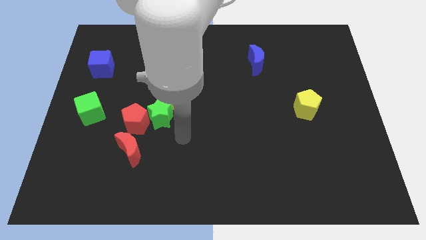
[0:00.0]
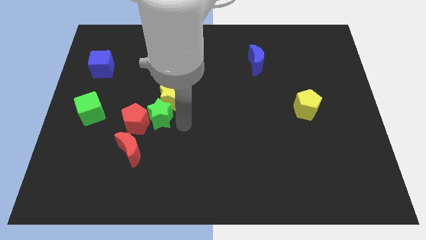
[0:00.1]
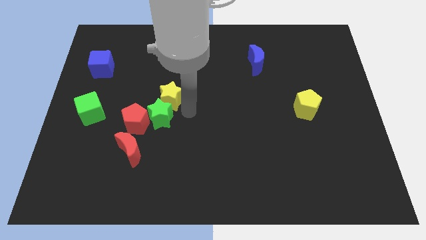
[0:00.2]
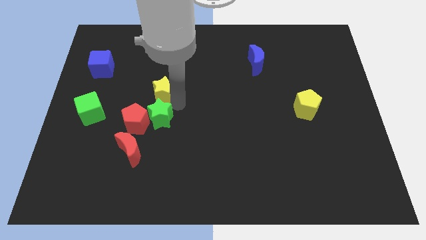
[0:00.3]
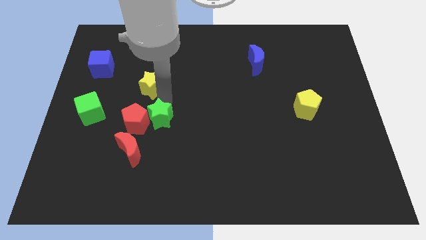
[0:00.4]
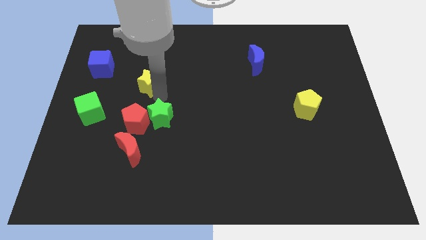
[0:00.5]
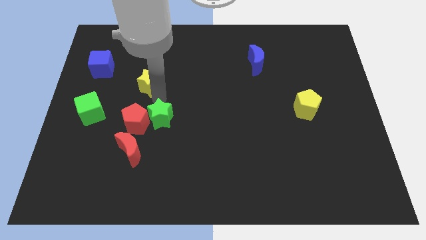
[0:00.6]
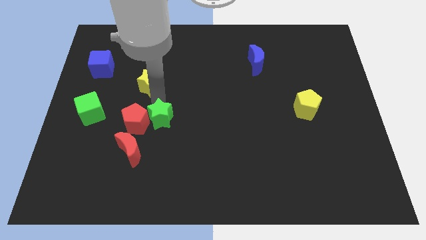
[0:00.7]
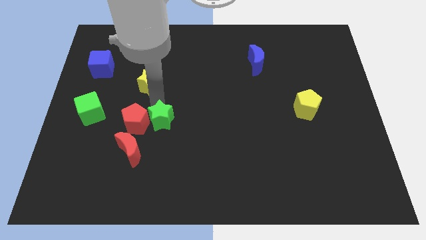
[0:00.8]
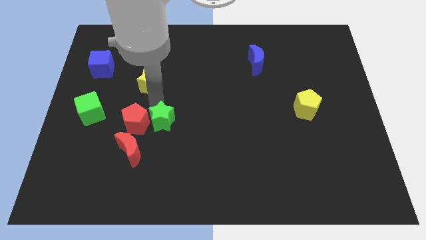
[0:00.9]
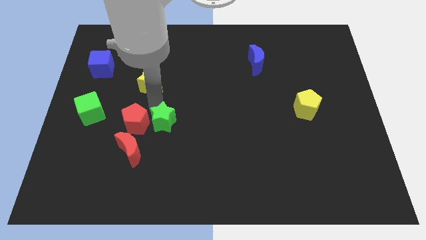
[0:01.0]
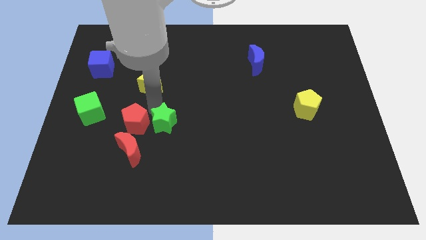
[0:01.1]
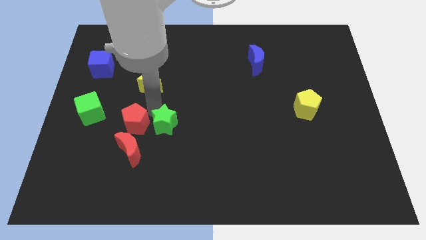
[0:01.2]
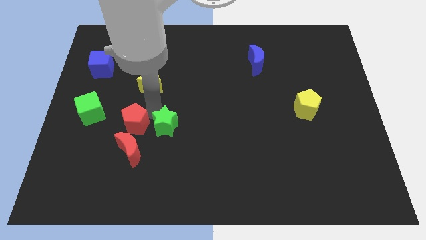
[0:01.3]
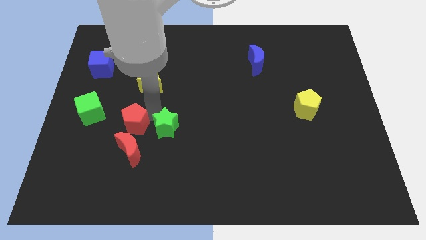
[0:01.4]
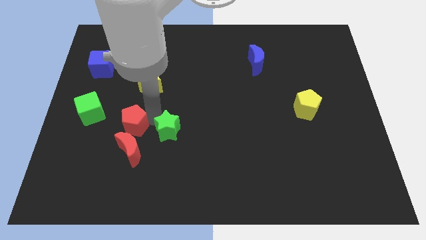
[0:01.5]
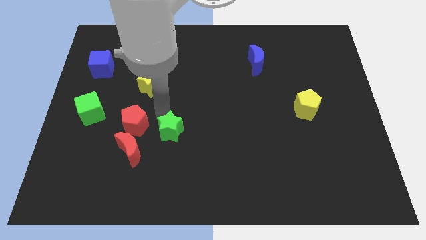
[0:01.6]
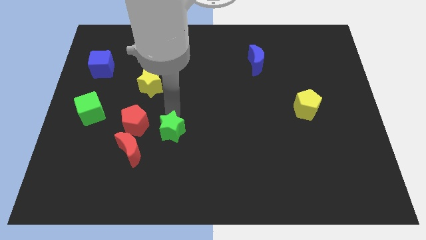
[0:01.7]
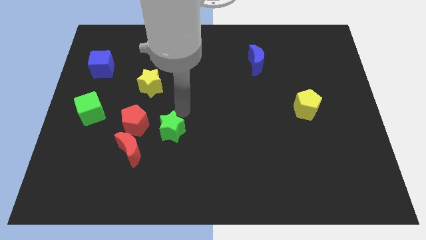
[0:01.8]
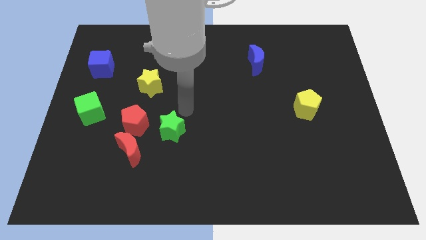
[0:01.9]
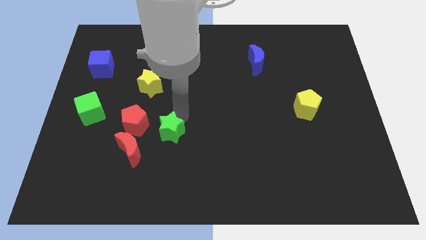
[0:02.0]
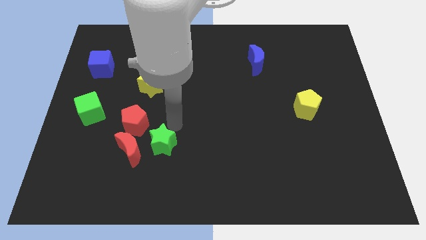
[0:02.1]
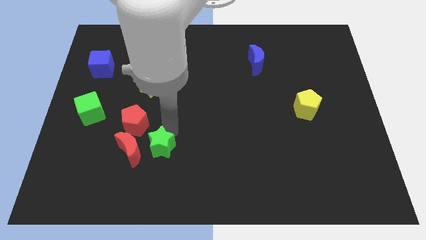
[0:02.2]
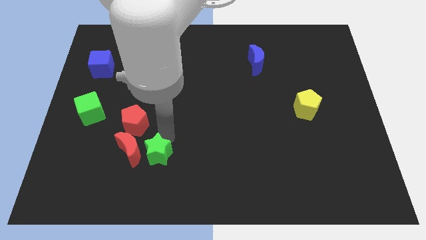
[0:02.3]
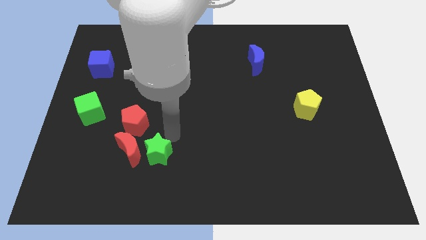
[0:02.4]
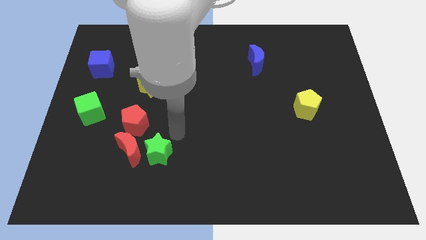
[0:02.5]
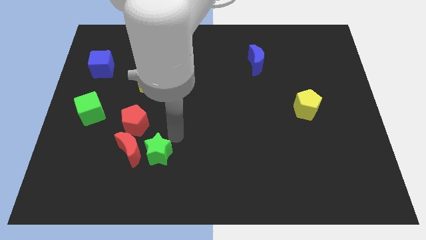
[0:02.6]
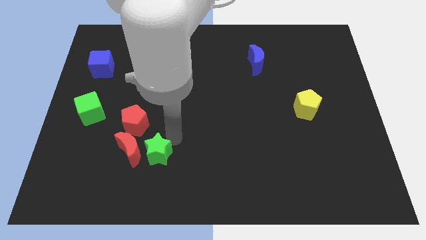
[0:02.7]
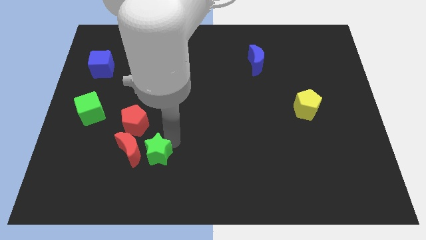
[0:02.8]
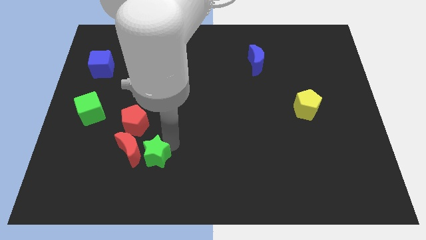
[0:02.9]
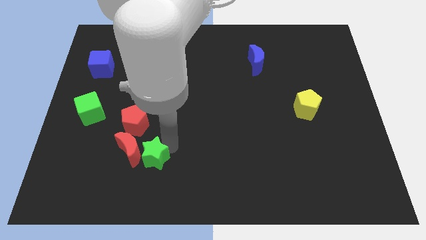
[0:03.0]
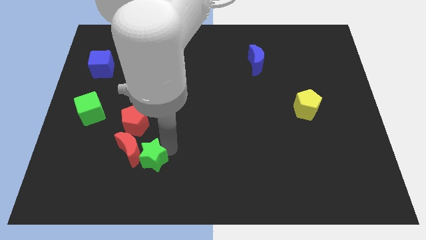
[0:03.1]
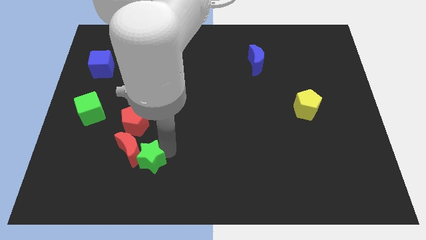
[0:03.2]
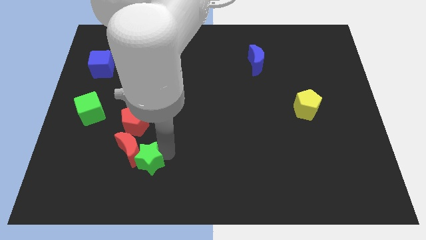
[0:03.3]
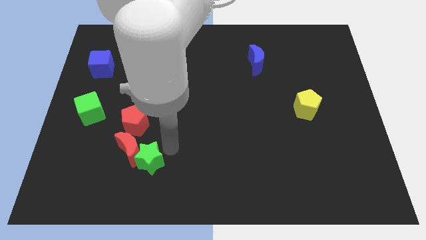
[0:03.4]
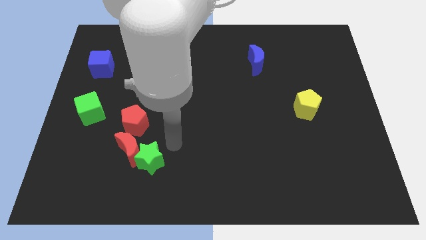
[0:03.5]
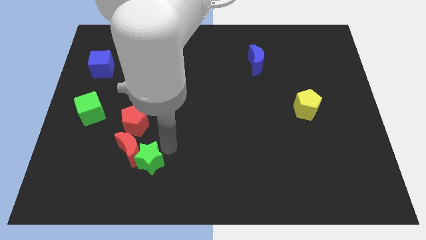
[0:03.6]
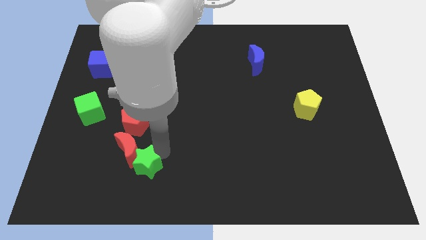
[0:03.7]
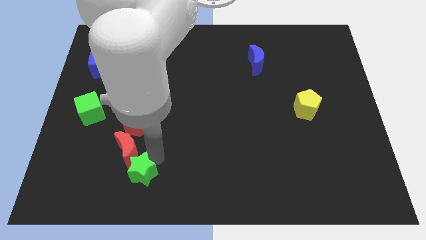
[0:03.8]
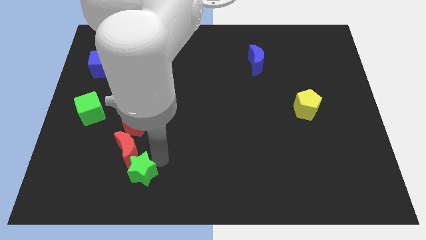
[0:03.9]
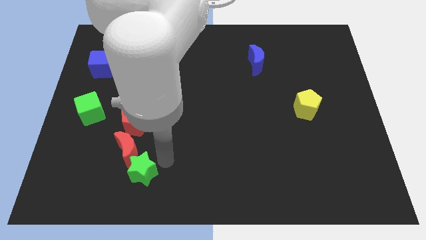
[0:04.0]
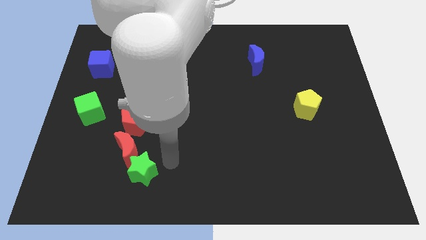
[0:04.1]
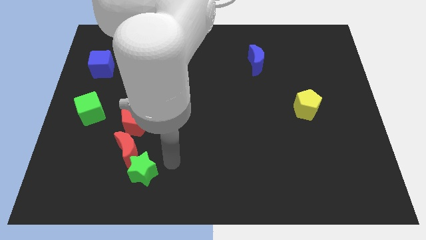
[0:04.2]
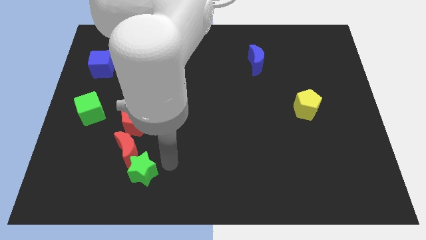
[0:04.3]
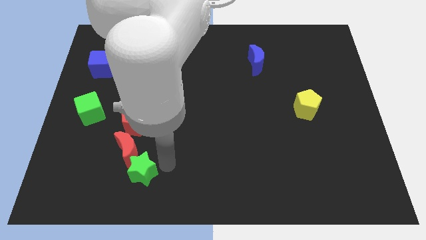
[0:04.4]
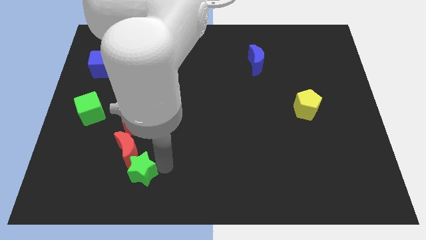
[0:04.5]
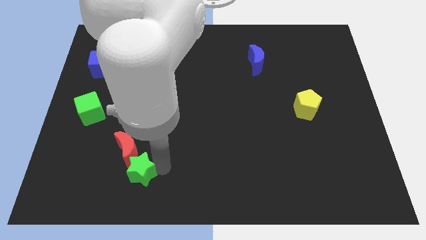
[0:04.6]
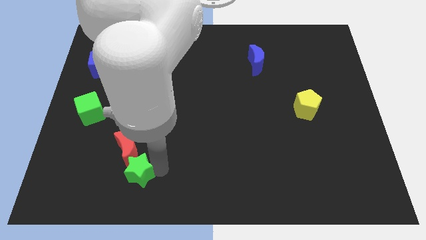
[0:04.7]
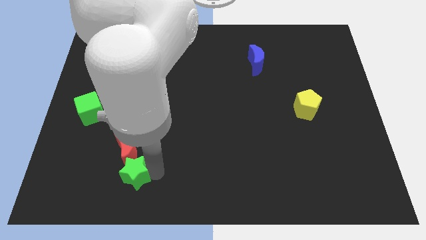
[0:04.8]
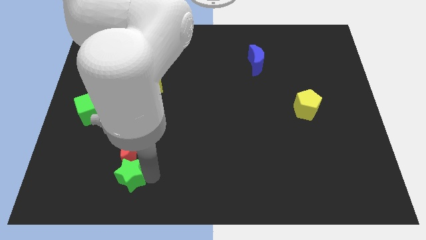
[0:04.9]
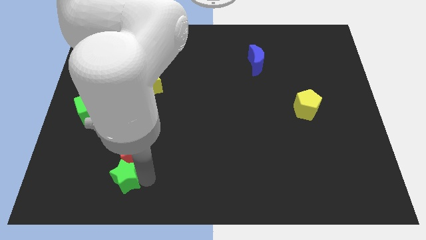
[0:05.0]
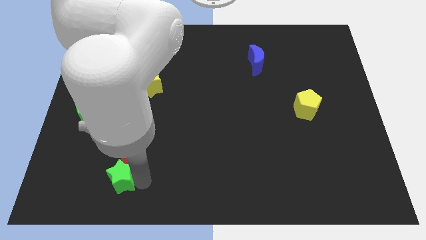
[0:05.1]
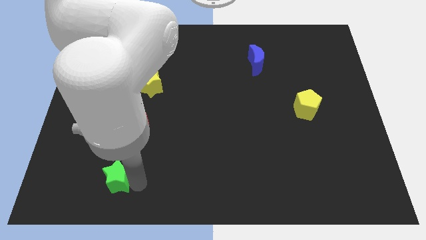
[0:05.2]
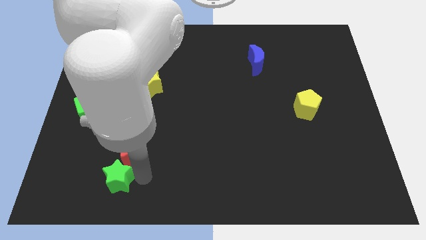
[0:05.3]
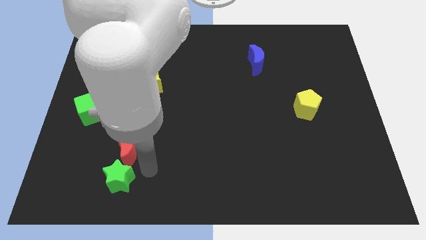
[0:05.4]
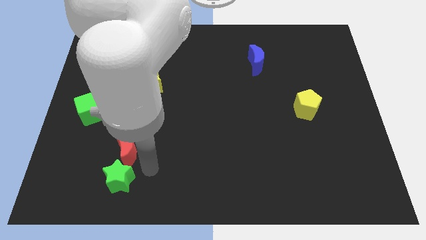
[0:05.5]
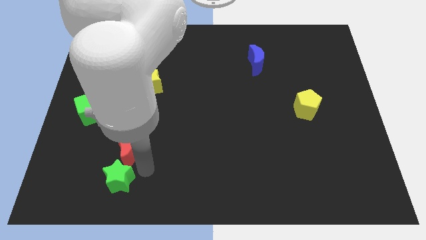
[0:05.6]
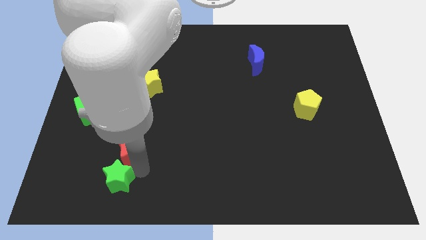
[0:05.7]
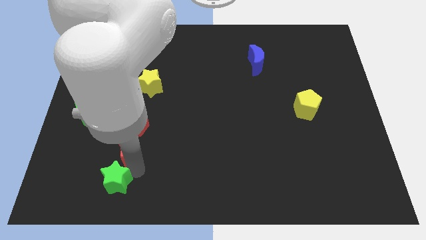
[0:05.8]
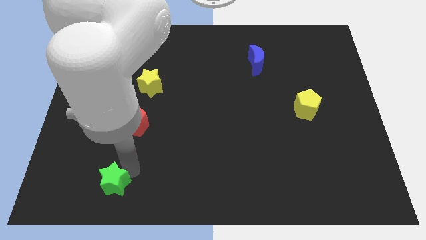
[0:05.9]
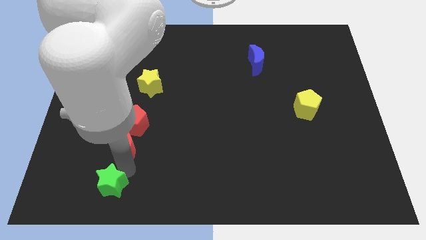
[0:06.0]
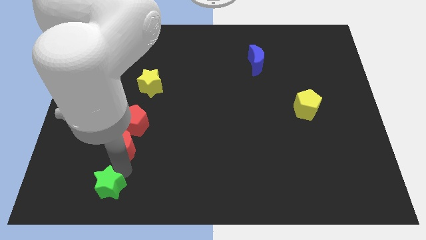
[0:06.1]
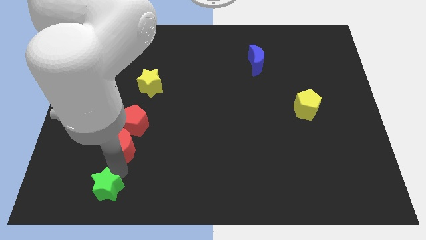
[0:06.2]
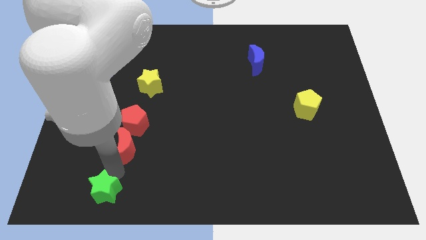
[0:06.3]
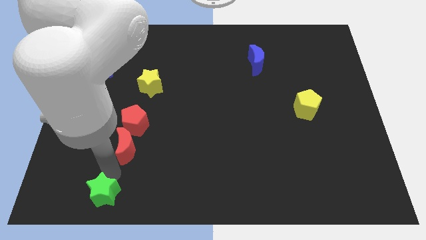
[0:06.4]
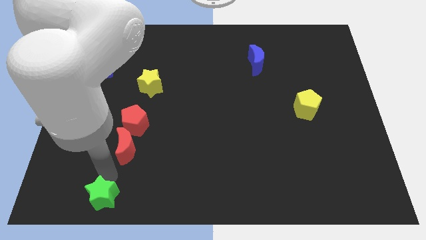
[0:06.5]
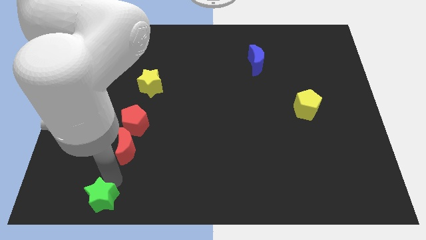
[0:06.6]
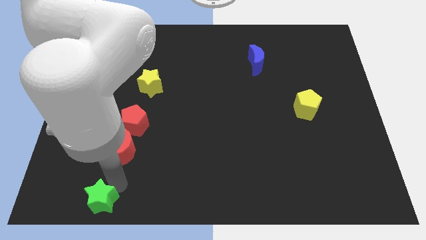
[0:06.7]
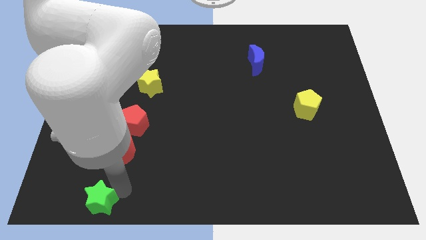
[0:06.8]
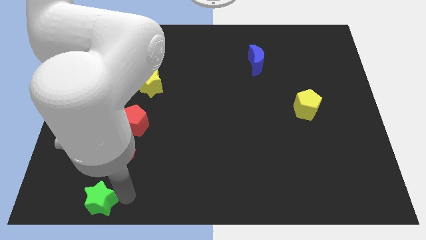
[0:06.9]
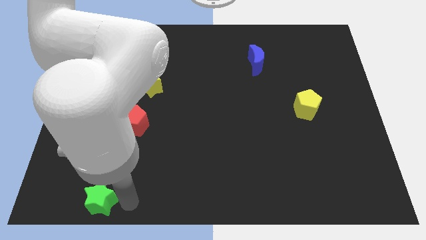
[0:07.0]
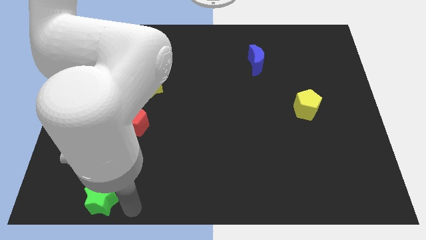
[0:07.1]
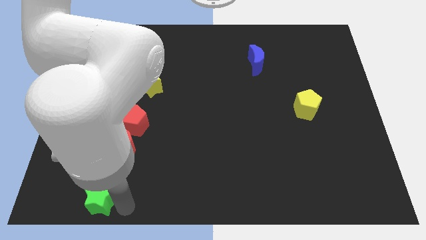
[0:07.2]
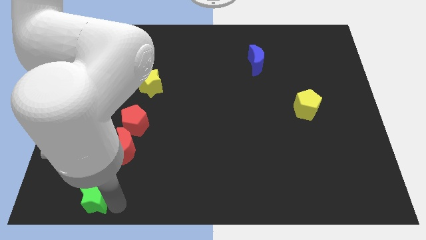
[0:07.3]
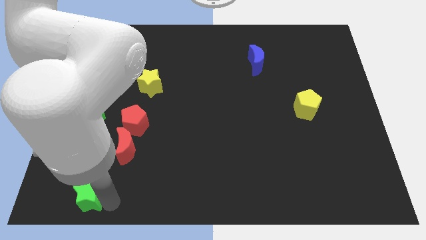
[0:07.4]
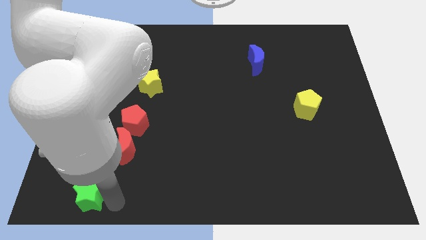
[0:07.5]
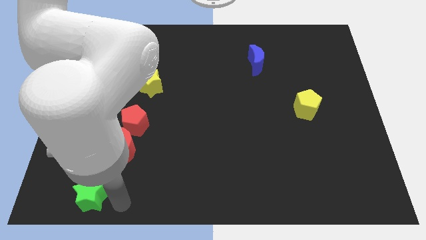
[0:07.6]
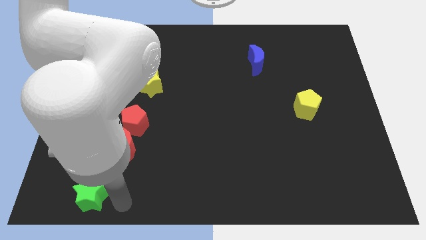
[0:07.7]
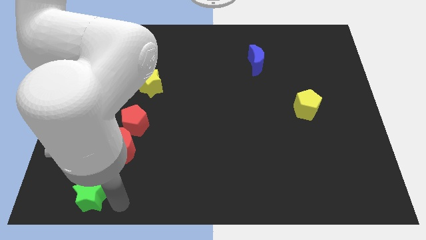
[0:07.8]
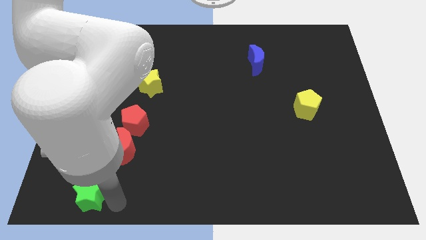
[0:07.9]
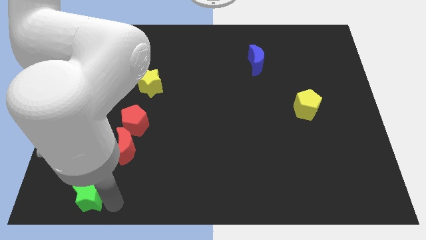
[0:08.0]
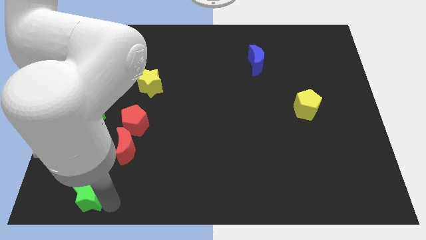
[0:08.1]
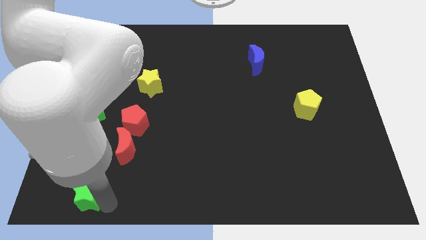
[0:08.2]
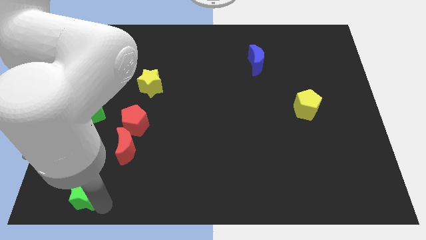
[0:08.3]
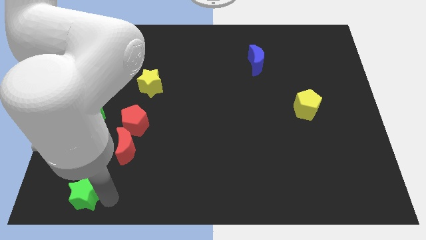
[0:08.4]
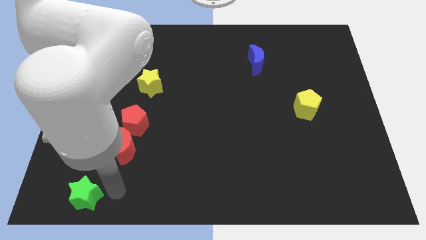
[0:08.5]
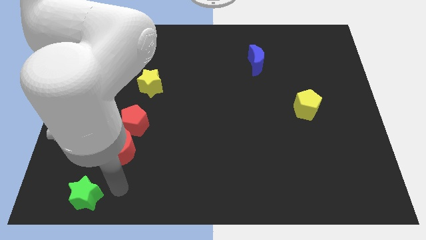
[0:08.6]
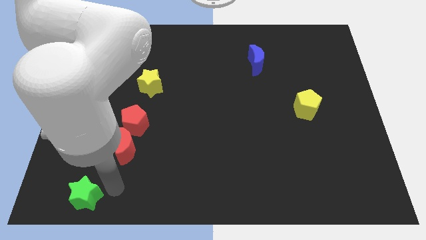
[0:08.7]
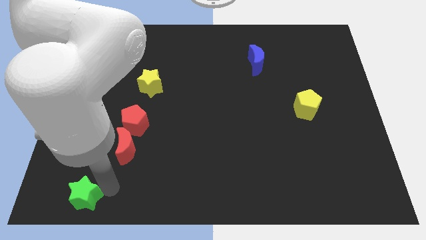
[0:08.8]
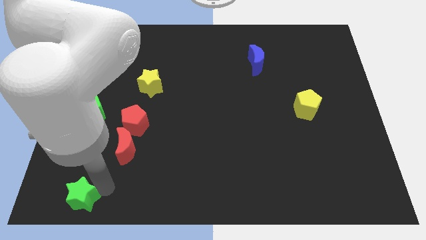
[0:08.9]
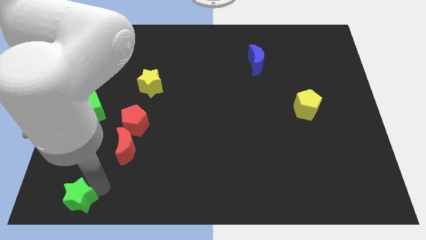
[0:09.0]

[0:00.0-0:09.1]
move the green star to the bottom left
